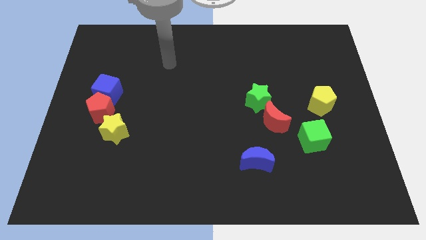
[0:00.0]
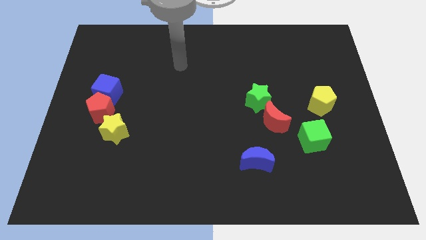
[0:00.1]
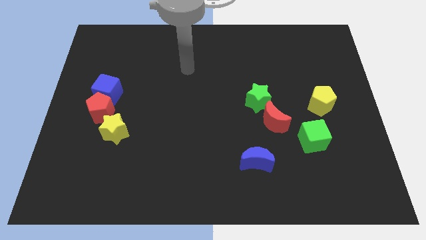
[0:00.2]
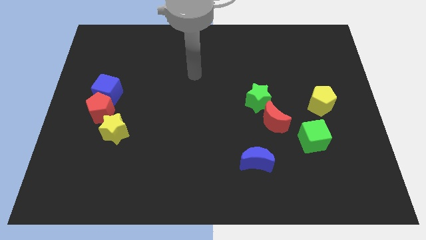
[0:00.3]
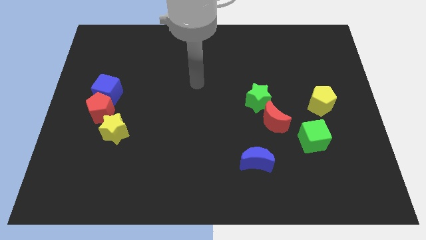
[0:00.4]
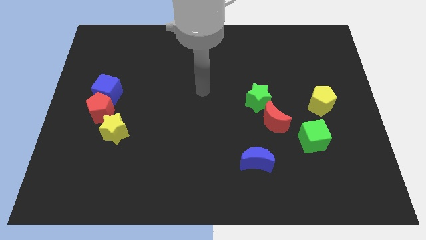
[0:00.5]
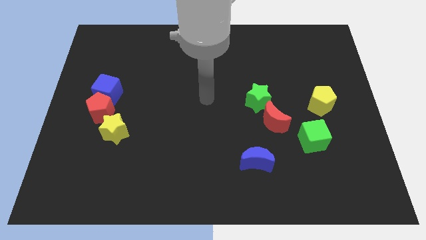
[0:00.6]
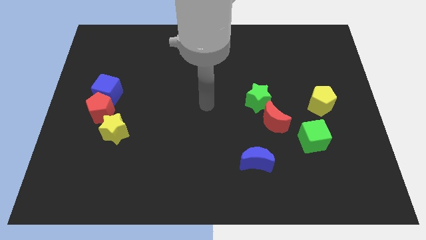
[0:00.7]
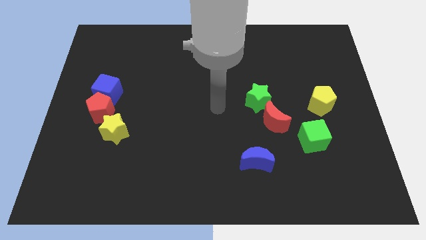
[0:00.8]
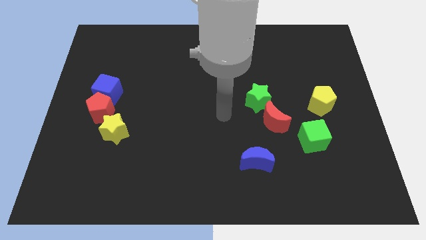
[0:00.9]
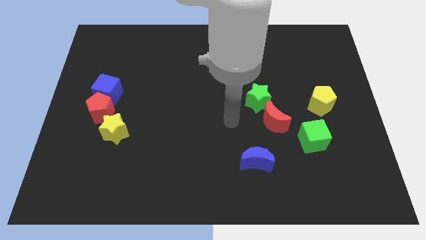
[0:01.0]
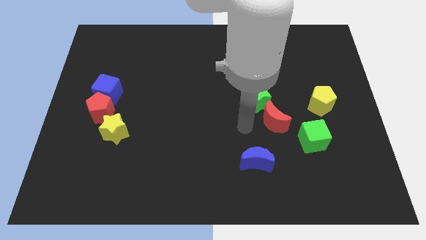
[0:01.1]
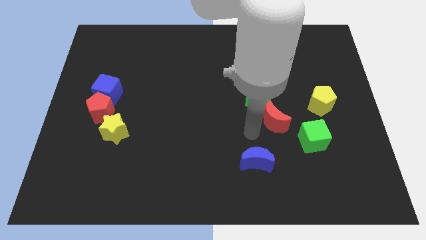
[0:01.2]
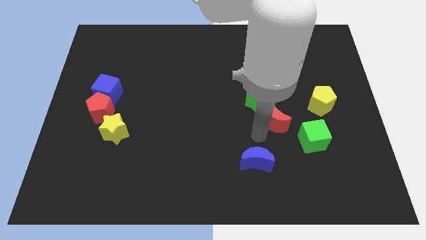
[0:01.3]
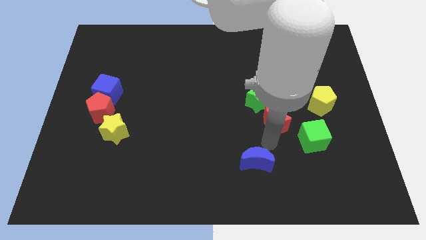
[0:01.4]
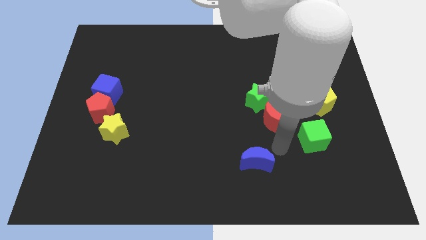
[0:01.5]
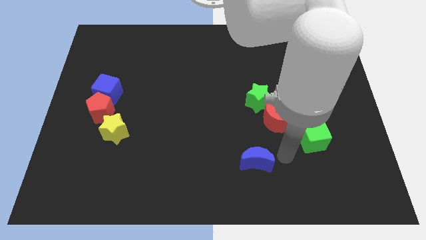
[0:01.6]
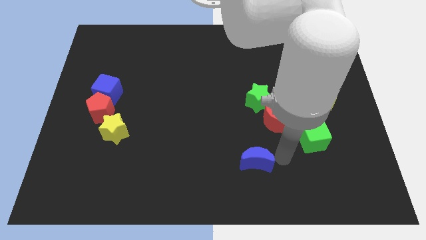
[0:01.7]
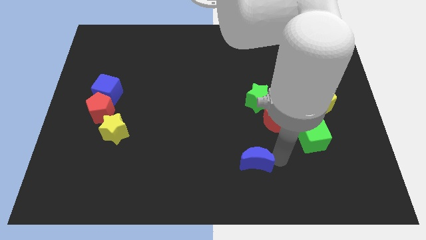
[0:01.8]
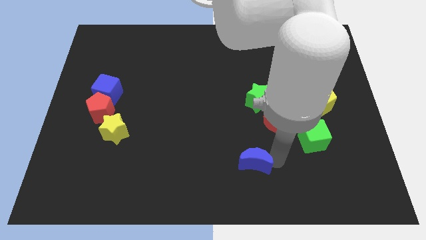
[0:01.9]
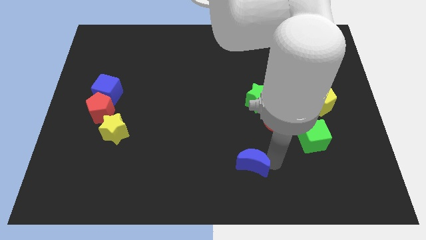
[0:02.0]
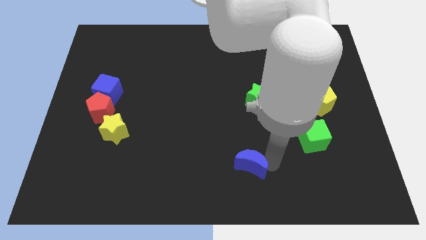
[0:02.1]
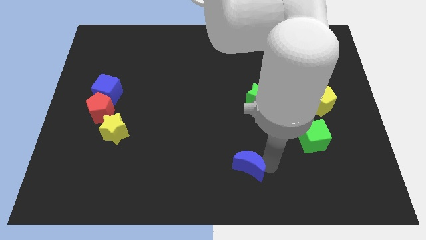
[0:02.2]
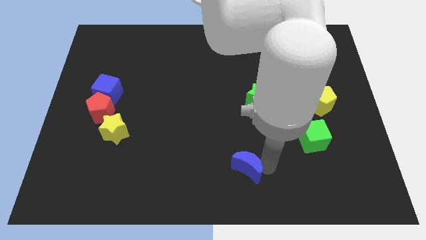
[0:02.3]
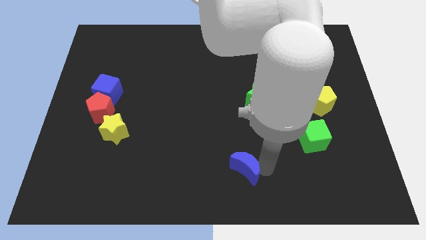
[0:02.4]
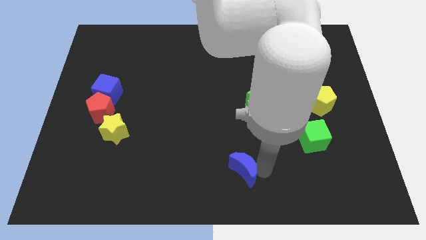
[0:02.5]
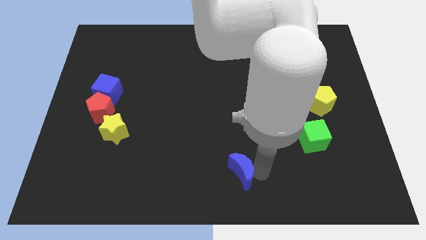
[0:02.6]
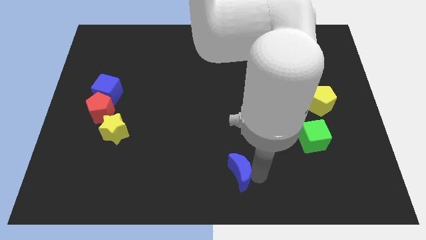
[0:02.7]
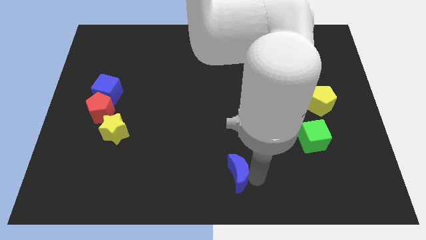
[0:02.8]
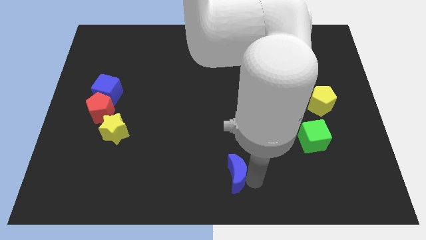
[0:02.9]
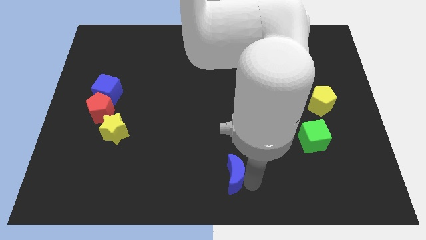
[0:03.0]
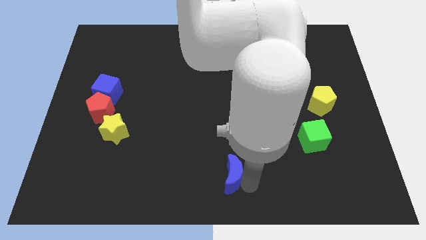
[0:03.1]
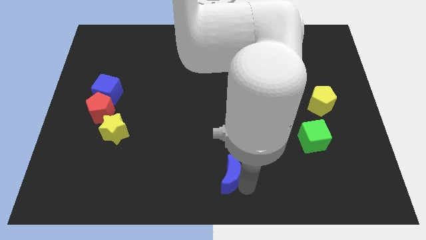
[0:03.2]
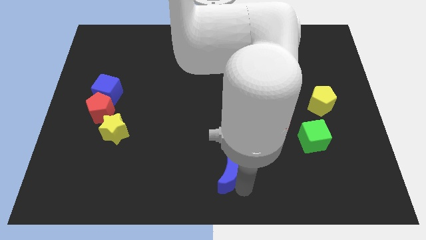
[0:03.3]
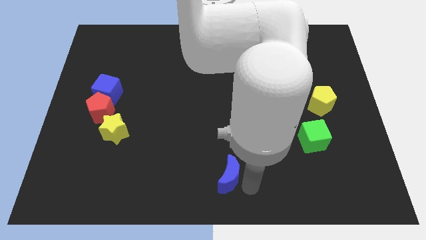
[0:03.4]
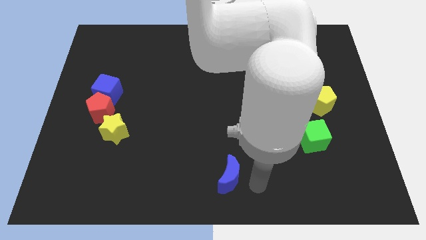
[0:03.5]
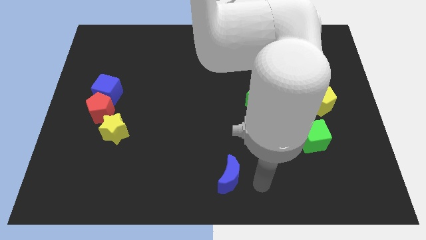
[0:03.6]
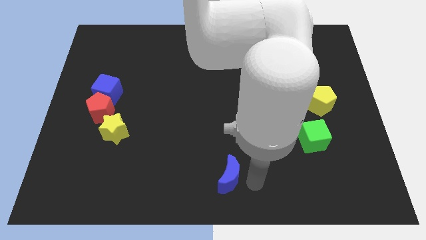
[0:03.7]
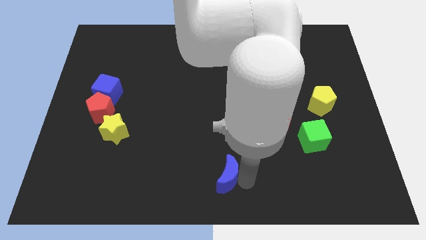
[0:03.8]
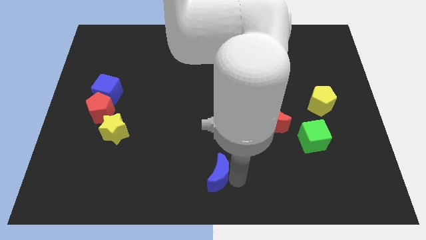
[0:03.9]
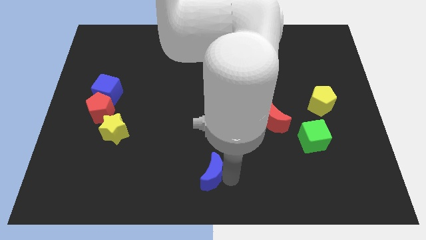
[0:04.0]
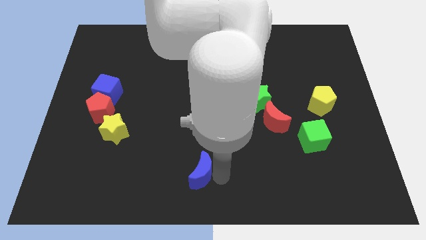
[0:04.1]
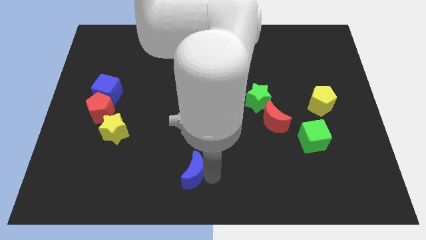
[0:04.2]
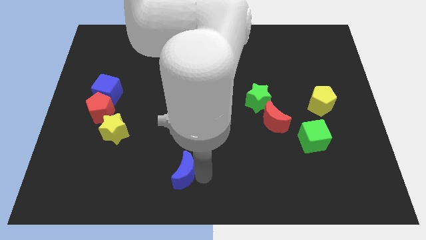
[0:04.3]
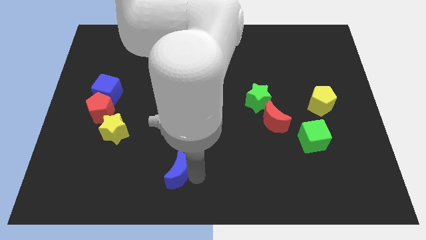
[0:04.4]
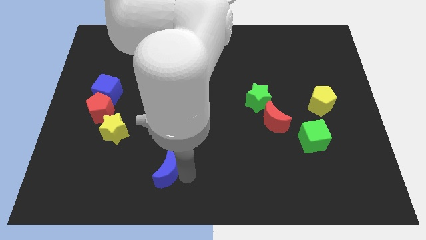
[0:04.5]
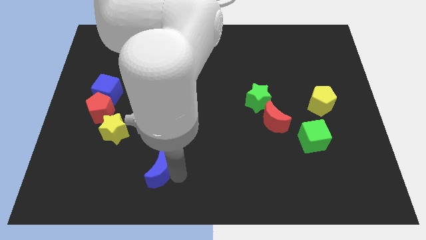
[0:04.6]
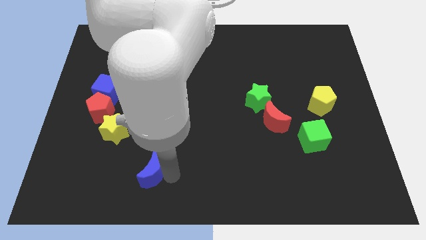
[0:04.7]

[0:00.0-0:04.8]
slide the blue moon left

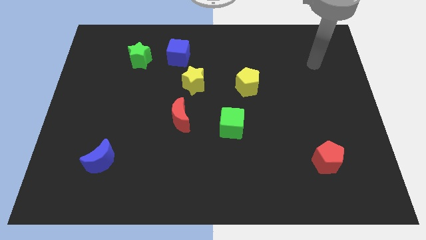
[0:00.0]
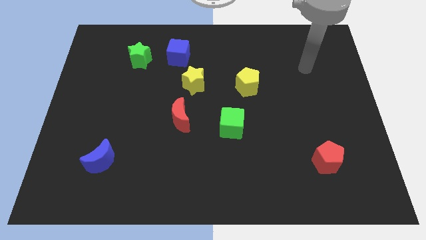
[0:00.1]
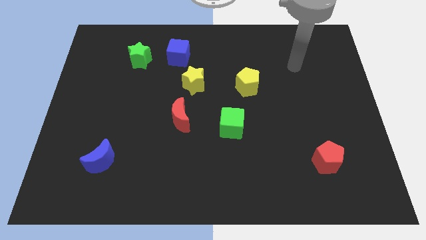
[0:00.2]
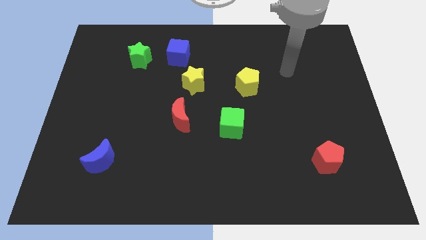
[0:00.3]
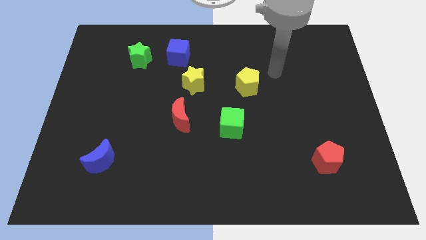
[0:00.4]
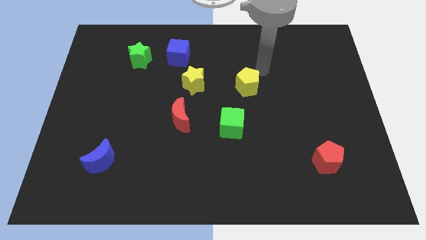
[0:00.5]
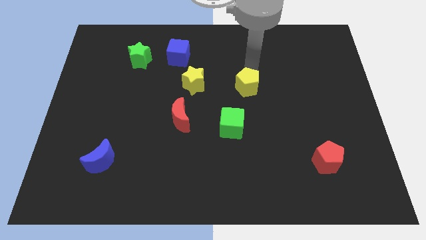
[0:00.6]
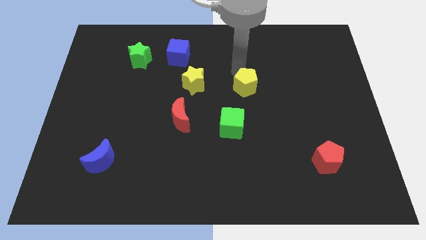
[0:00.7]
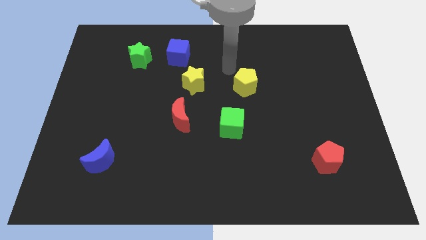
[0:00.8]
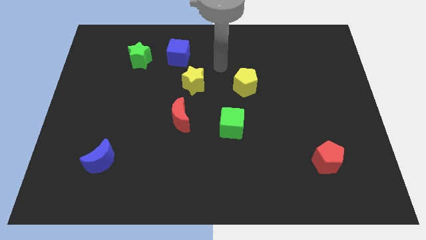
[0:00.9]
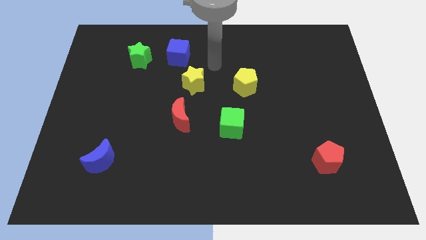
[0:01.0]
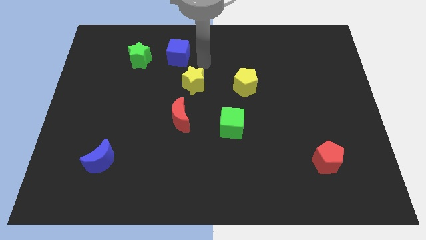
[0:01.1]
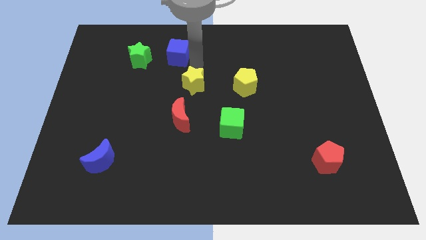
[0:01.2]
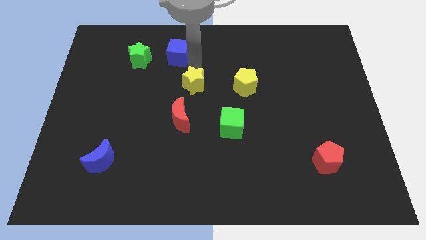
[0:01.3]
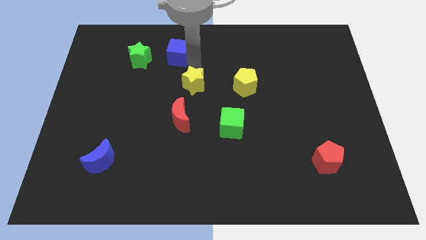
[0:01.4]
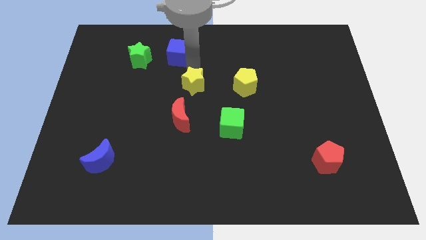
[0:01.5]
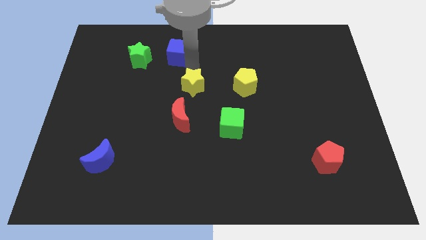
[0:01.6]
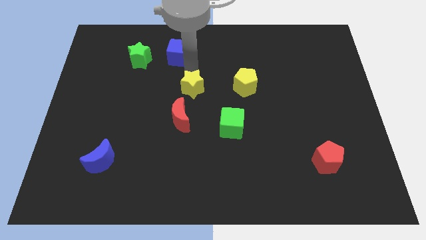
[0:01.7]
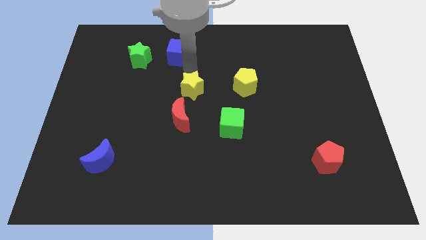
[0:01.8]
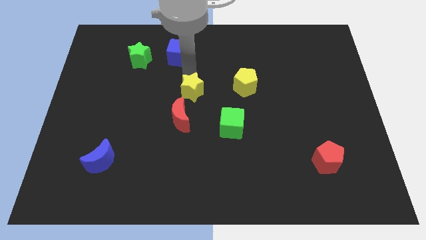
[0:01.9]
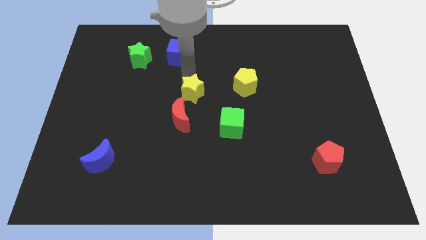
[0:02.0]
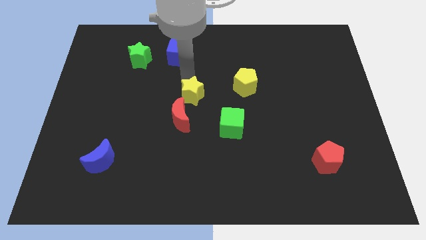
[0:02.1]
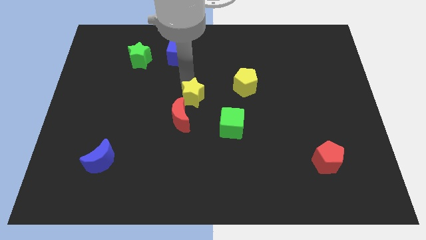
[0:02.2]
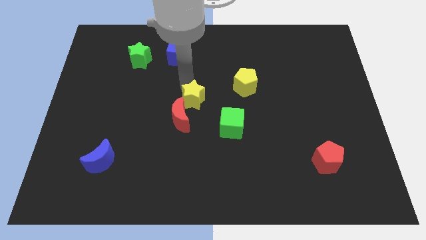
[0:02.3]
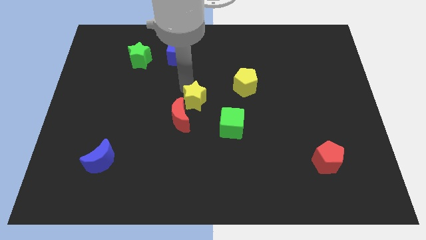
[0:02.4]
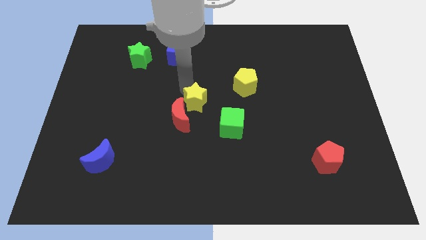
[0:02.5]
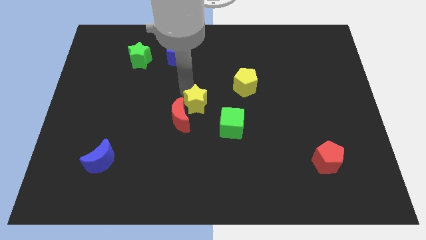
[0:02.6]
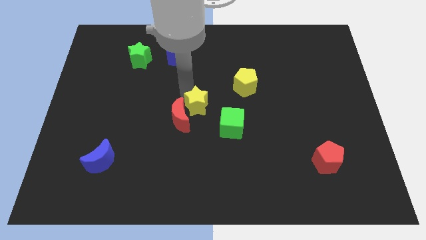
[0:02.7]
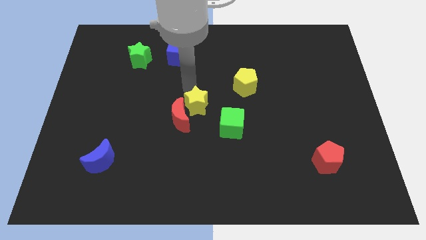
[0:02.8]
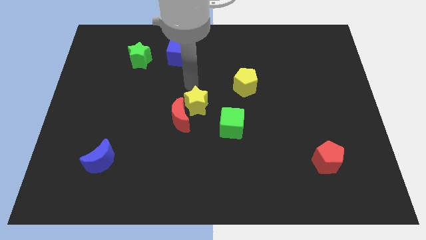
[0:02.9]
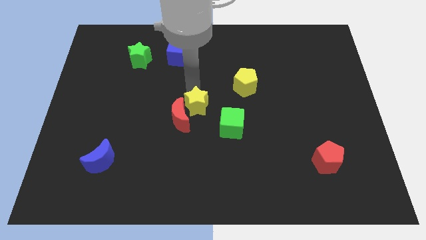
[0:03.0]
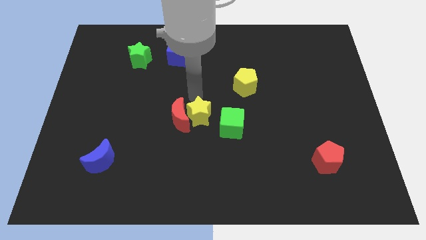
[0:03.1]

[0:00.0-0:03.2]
move the yellow star a little bit downwards
